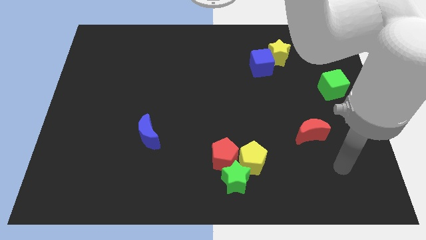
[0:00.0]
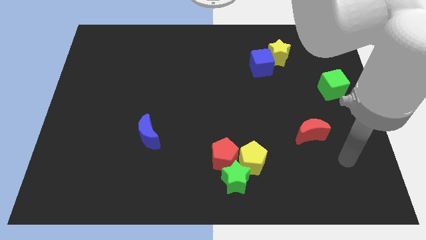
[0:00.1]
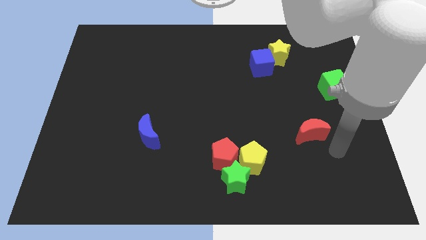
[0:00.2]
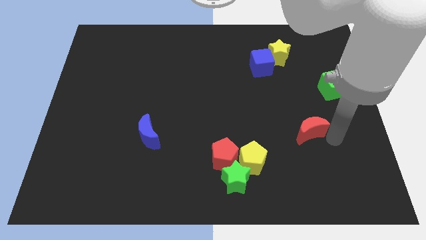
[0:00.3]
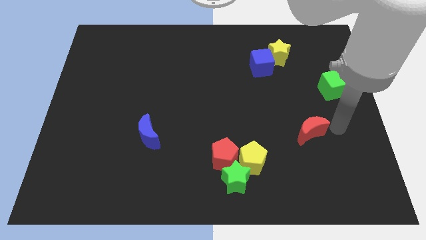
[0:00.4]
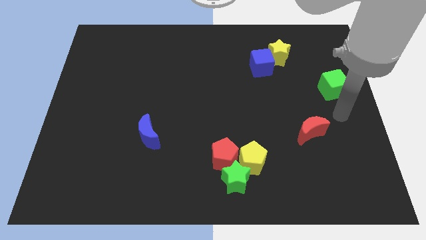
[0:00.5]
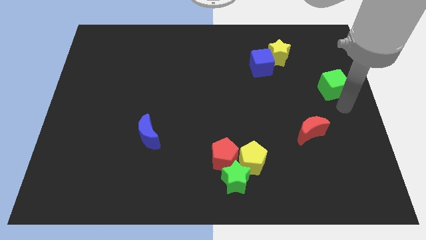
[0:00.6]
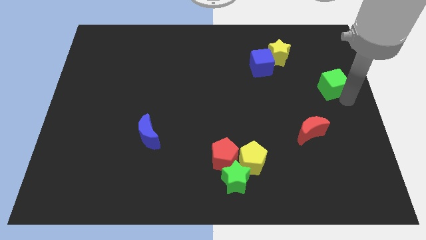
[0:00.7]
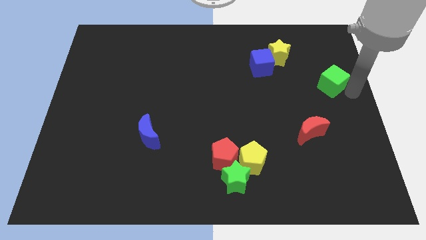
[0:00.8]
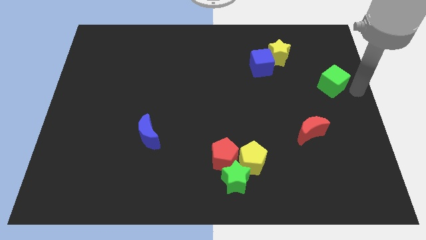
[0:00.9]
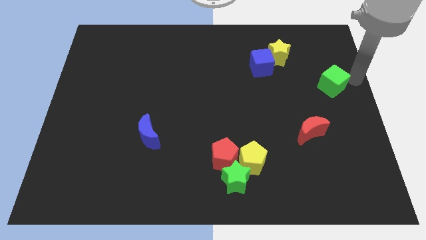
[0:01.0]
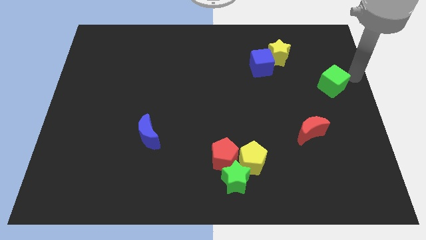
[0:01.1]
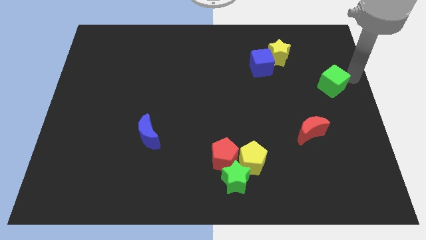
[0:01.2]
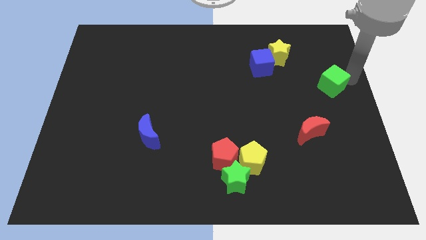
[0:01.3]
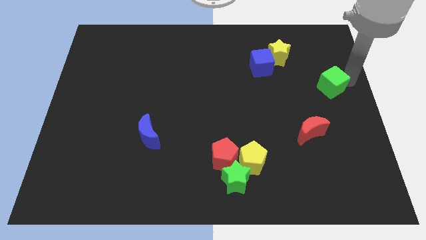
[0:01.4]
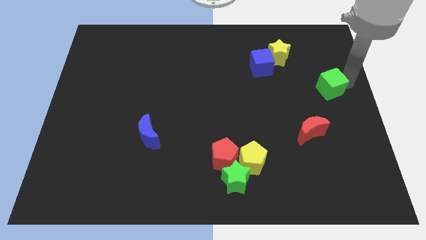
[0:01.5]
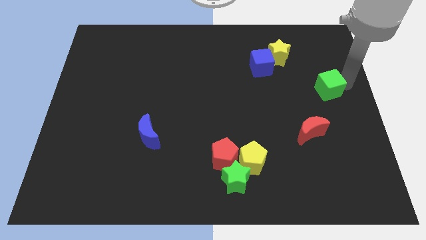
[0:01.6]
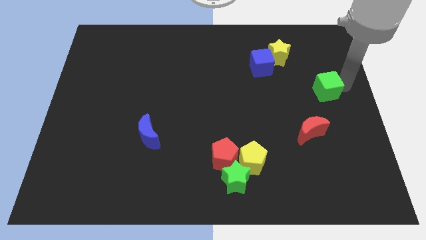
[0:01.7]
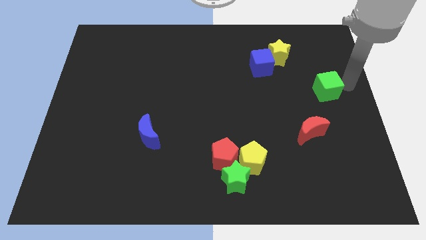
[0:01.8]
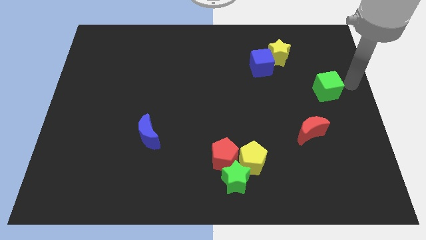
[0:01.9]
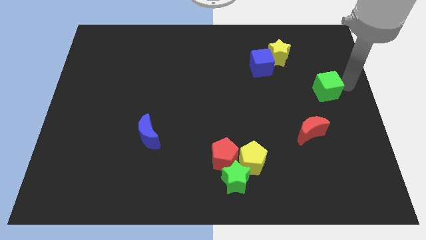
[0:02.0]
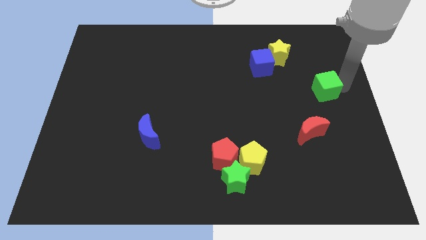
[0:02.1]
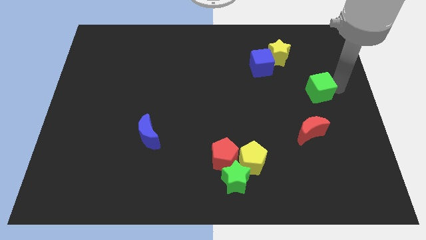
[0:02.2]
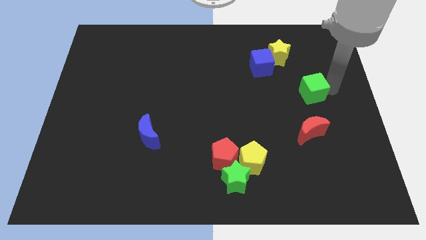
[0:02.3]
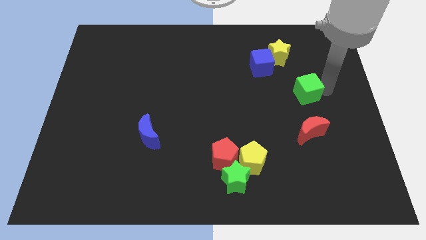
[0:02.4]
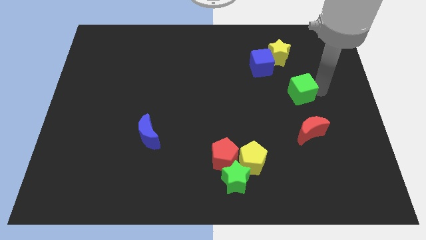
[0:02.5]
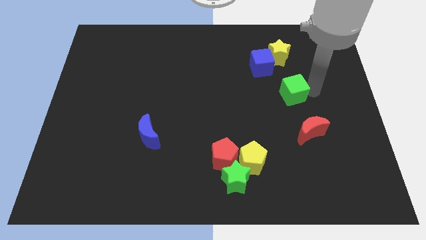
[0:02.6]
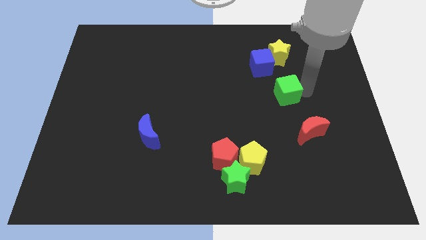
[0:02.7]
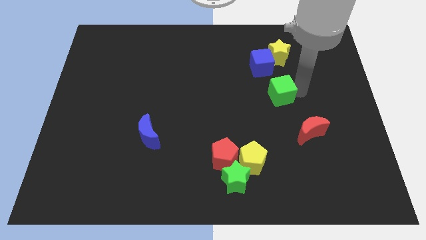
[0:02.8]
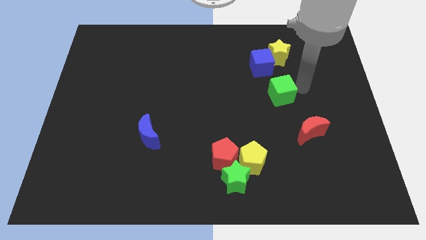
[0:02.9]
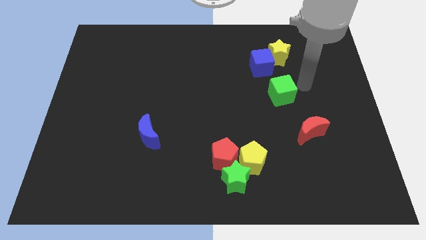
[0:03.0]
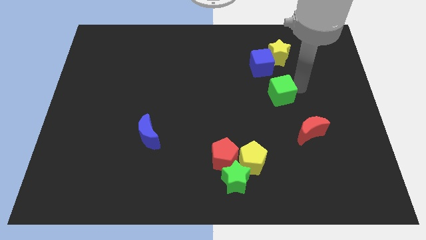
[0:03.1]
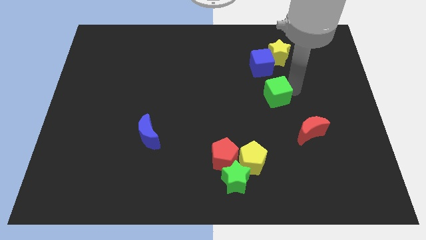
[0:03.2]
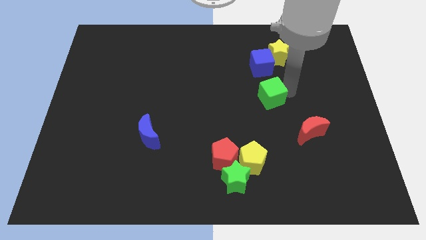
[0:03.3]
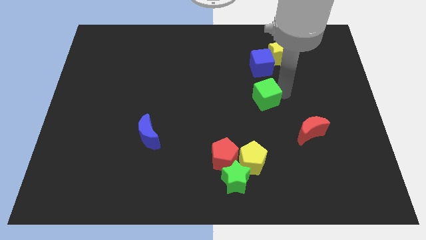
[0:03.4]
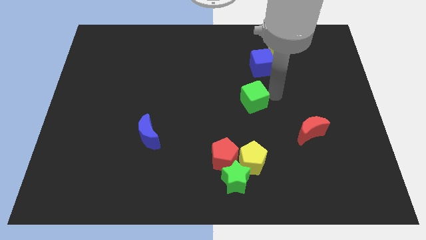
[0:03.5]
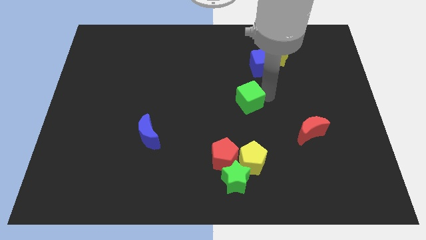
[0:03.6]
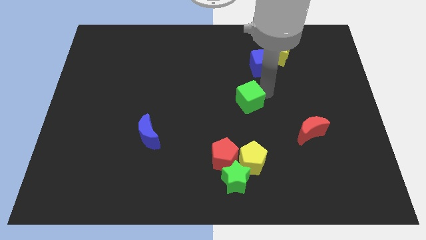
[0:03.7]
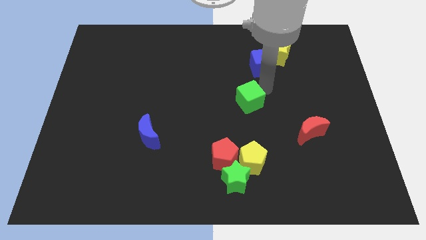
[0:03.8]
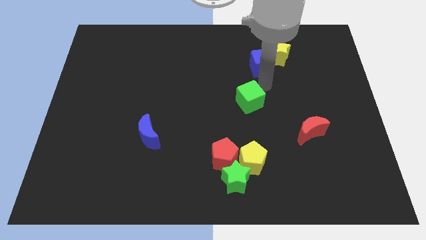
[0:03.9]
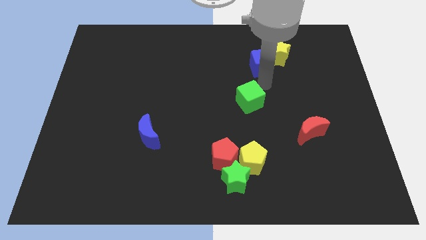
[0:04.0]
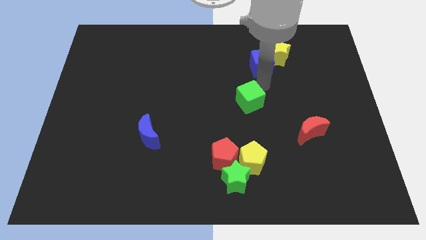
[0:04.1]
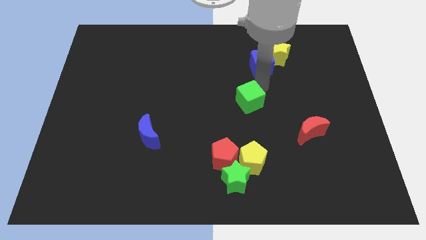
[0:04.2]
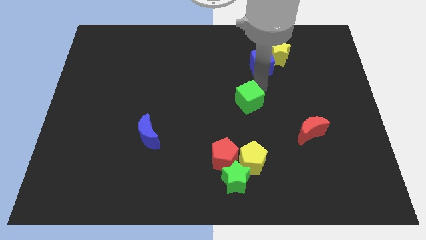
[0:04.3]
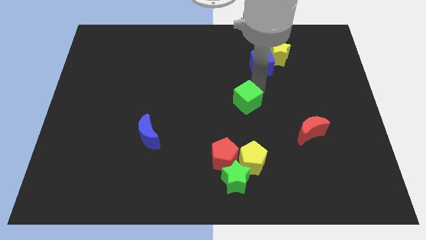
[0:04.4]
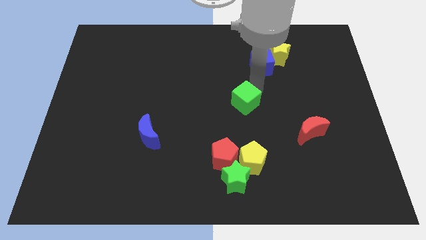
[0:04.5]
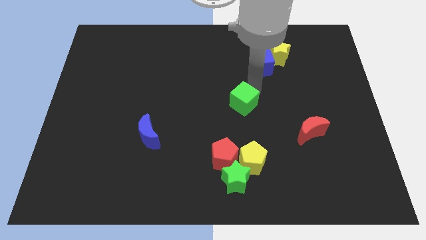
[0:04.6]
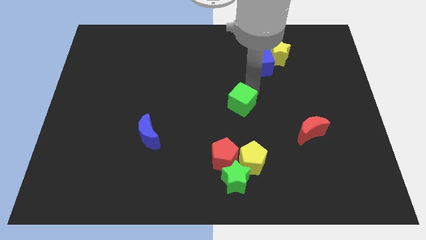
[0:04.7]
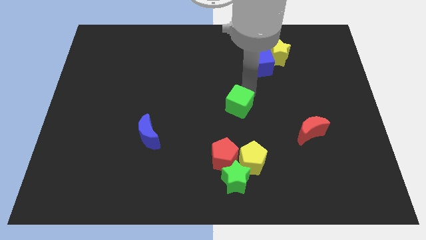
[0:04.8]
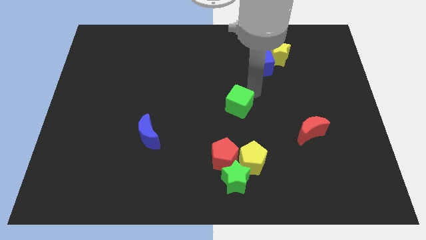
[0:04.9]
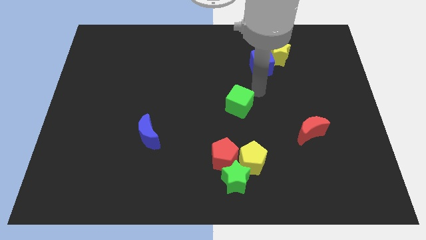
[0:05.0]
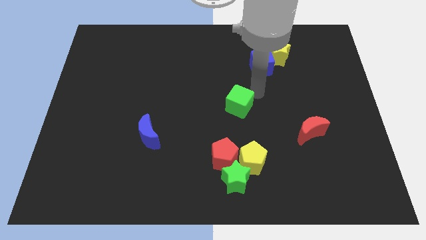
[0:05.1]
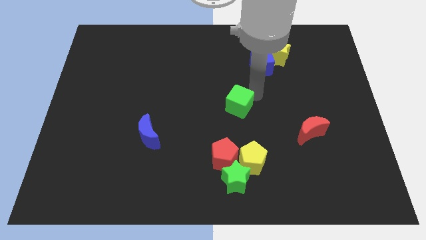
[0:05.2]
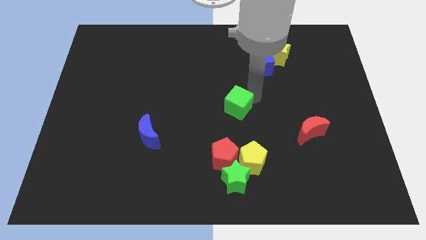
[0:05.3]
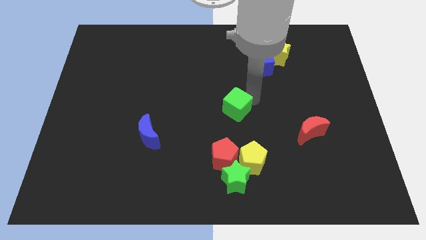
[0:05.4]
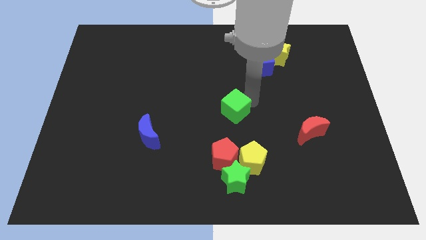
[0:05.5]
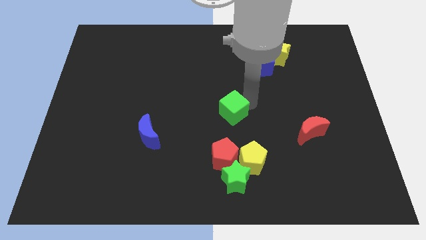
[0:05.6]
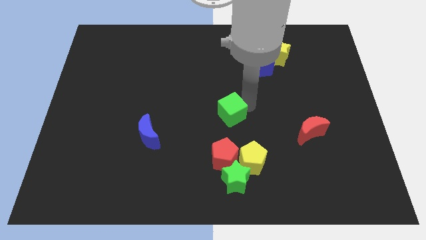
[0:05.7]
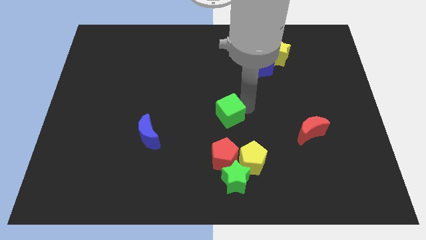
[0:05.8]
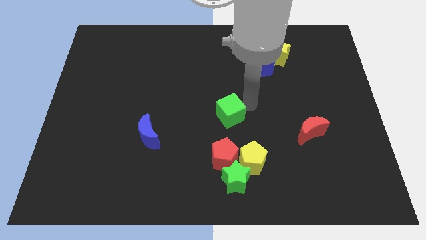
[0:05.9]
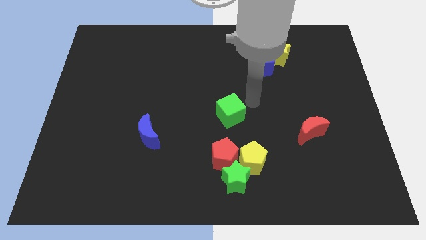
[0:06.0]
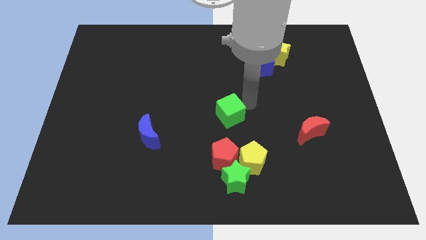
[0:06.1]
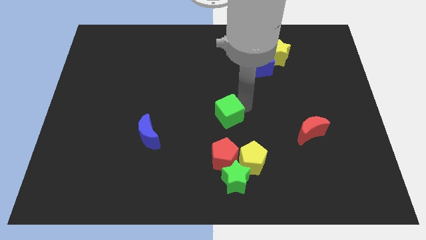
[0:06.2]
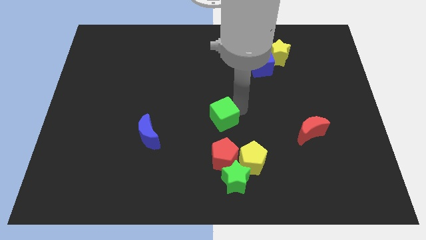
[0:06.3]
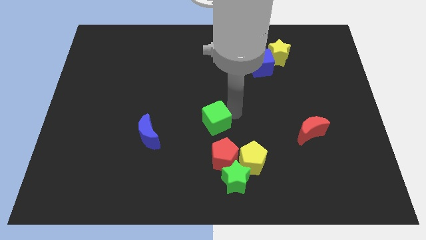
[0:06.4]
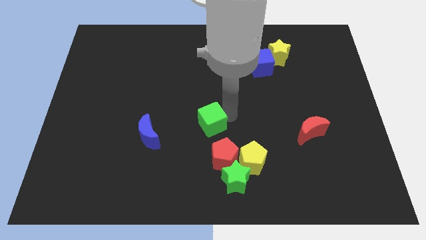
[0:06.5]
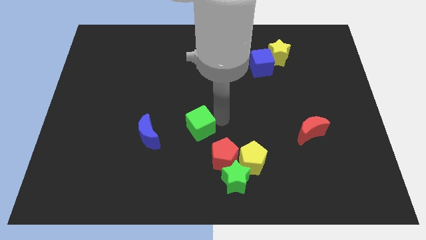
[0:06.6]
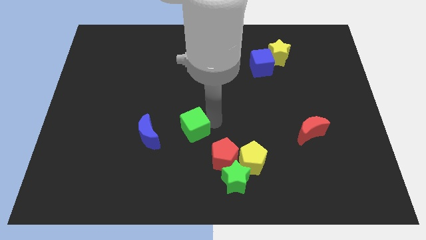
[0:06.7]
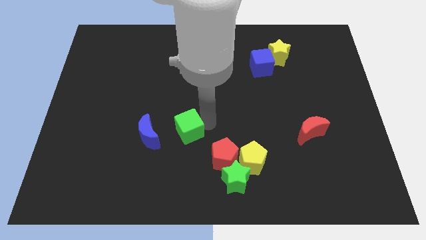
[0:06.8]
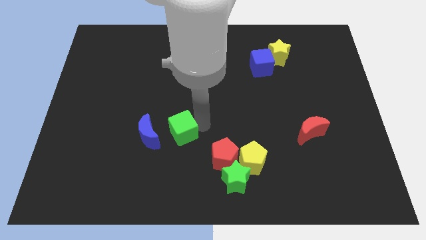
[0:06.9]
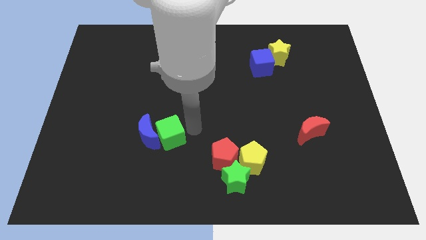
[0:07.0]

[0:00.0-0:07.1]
move the green cube towards the blue moon

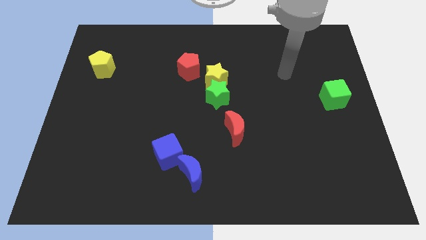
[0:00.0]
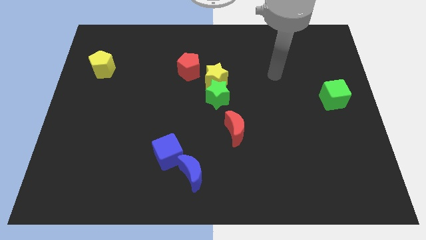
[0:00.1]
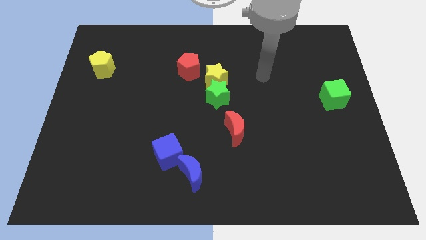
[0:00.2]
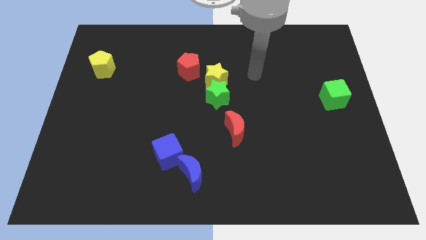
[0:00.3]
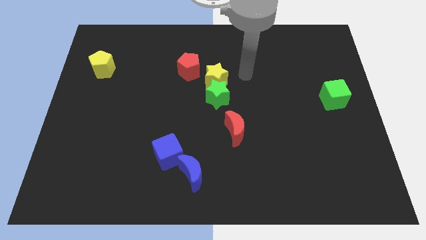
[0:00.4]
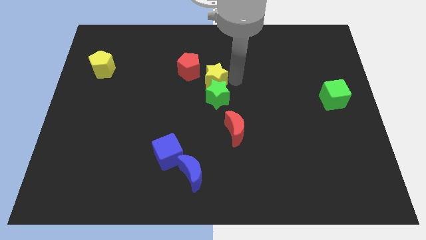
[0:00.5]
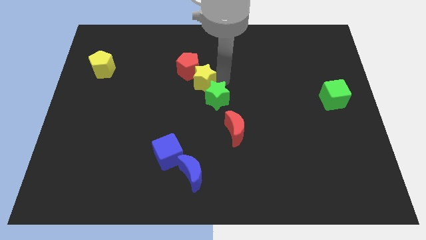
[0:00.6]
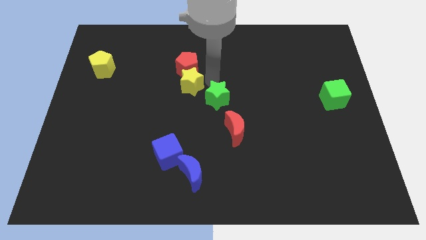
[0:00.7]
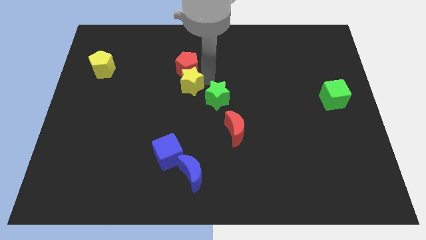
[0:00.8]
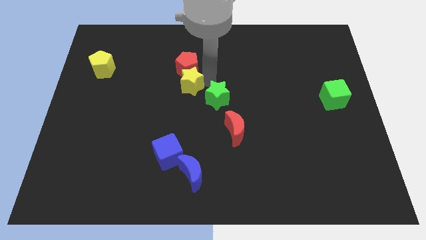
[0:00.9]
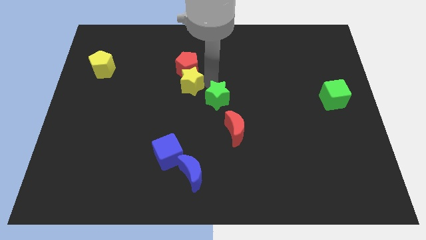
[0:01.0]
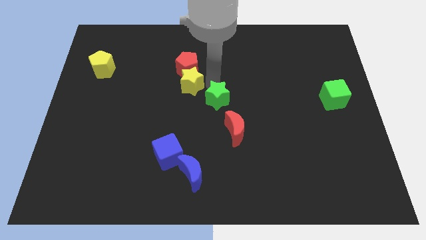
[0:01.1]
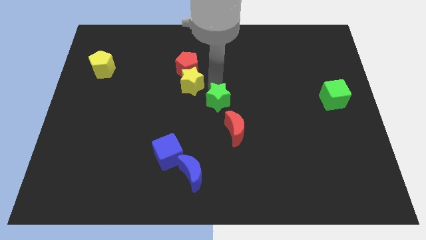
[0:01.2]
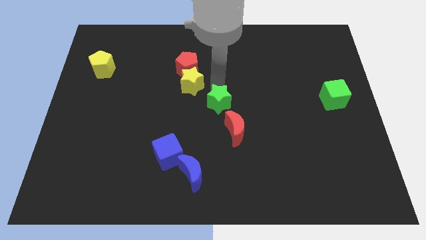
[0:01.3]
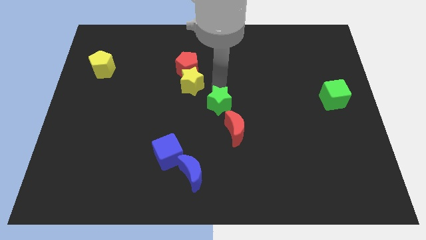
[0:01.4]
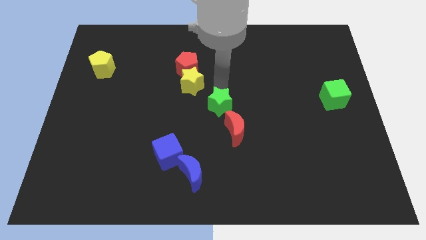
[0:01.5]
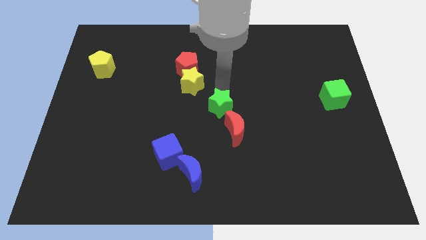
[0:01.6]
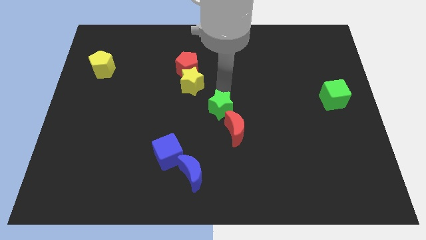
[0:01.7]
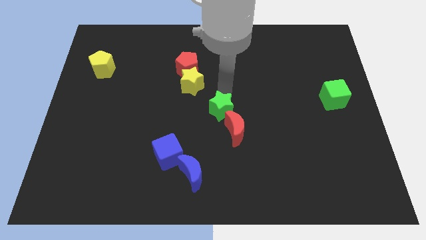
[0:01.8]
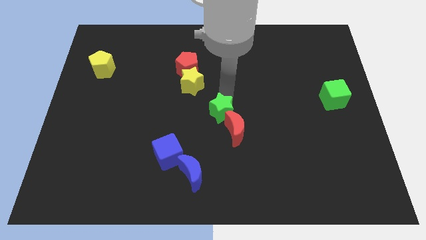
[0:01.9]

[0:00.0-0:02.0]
slide the green star next to the red moon
